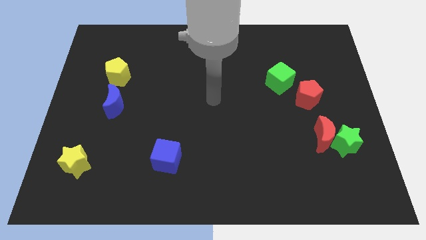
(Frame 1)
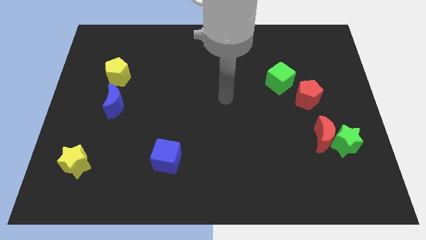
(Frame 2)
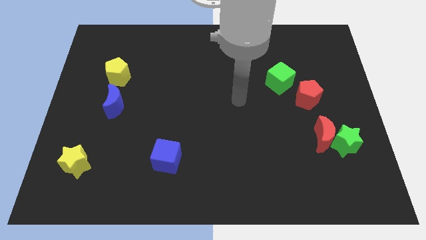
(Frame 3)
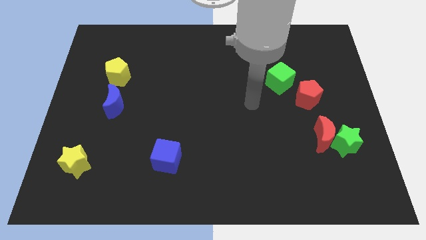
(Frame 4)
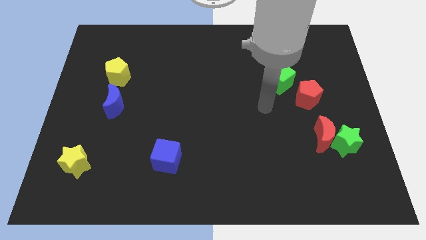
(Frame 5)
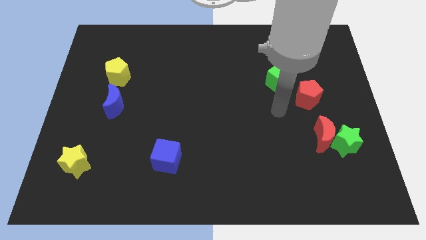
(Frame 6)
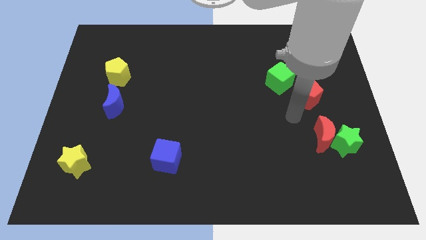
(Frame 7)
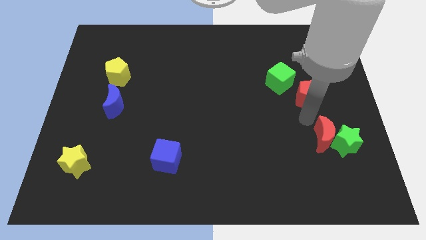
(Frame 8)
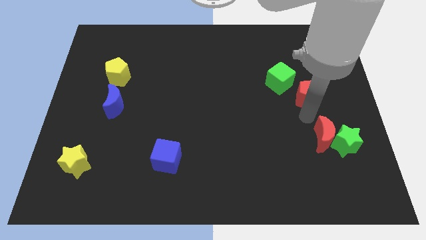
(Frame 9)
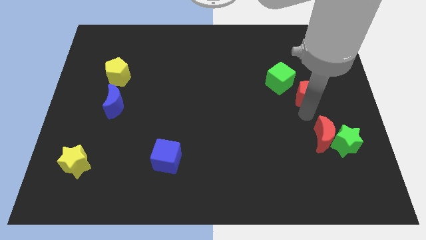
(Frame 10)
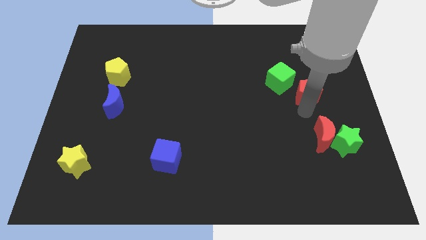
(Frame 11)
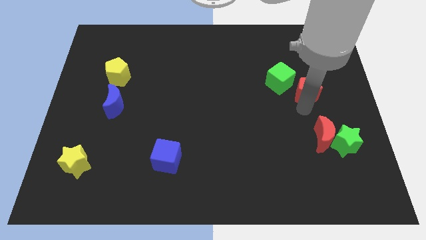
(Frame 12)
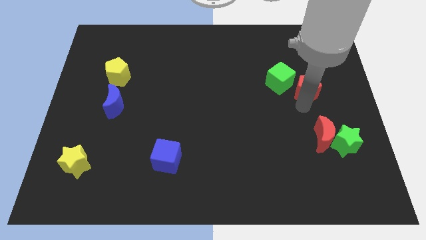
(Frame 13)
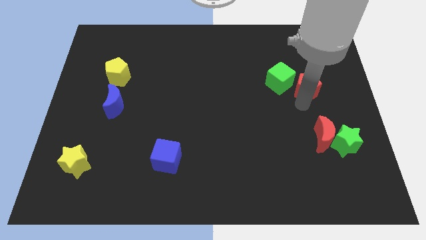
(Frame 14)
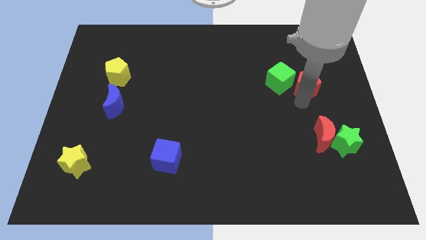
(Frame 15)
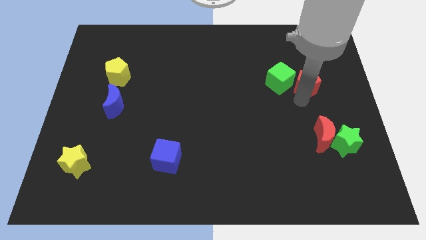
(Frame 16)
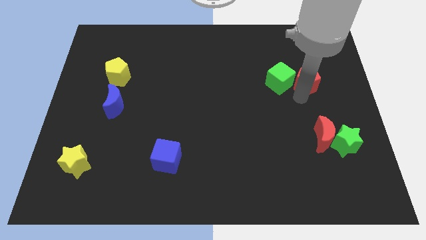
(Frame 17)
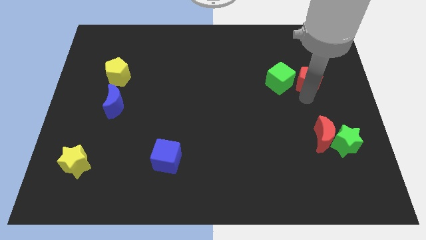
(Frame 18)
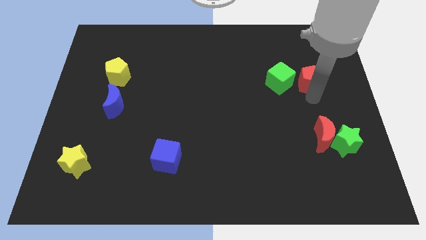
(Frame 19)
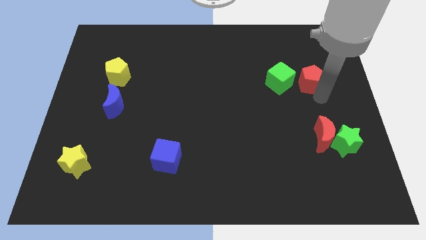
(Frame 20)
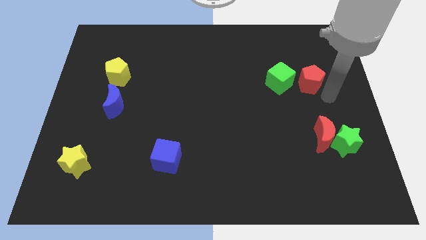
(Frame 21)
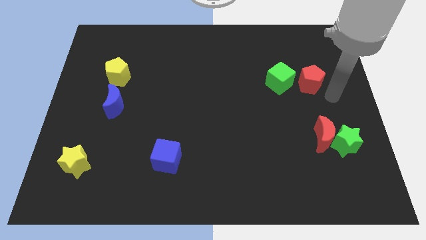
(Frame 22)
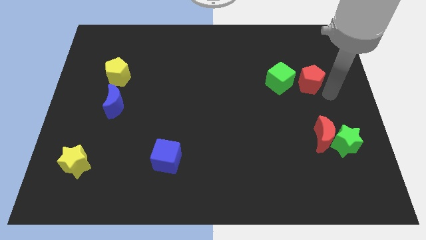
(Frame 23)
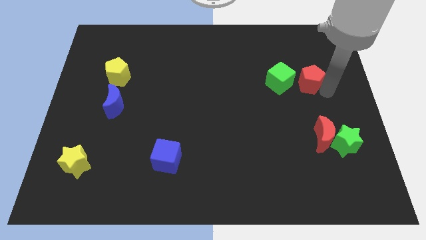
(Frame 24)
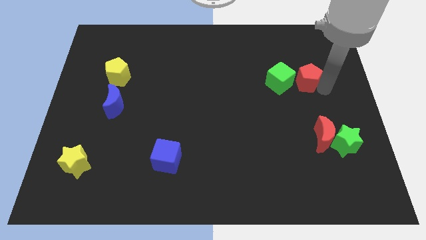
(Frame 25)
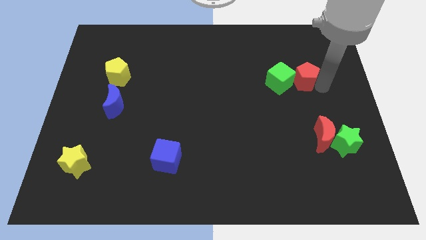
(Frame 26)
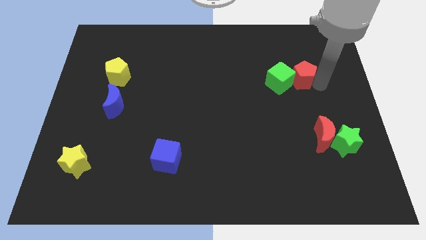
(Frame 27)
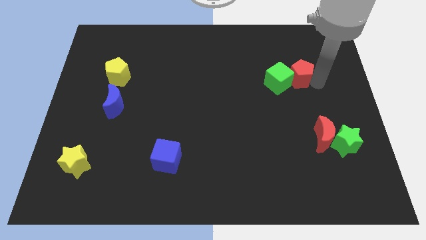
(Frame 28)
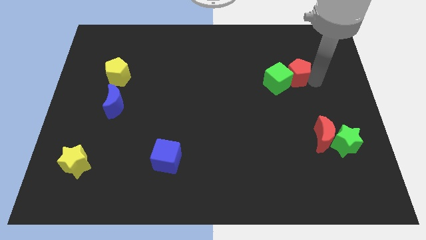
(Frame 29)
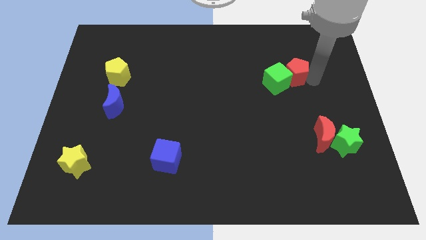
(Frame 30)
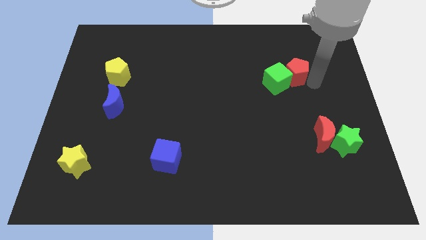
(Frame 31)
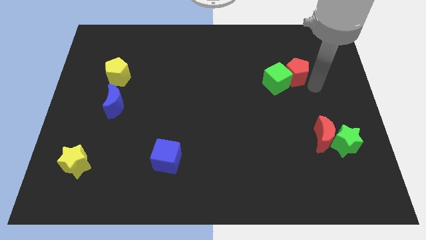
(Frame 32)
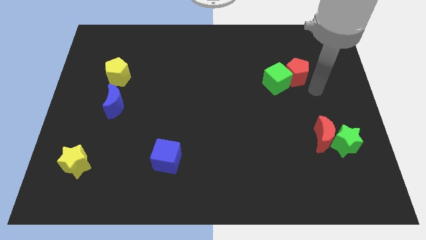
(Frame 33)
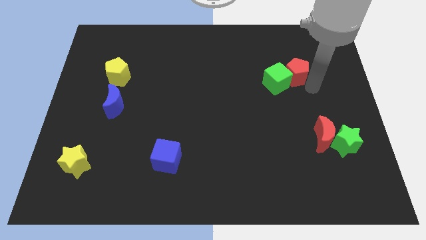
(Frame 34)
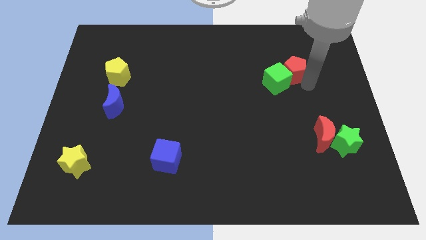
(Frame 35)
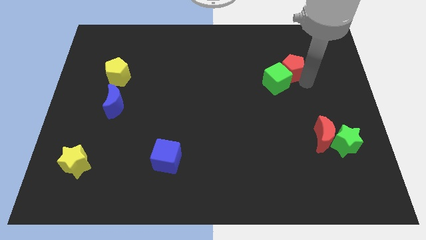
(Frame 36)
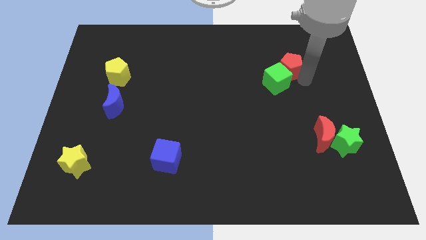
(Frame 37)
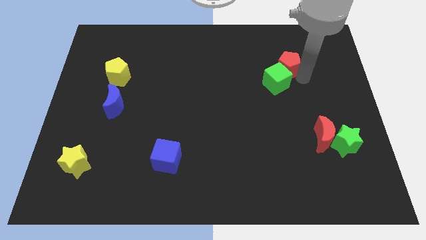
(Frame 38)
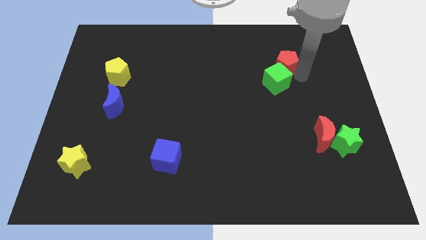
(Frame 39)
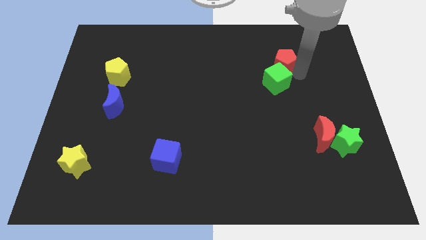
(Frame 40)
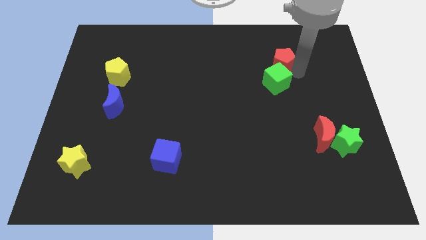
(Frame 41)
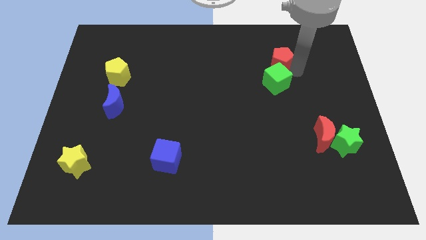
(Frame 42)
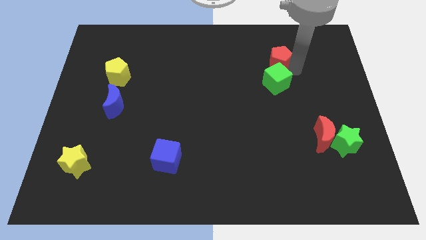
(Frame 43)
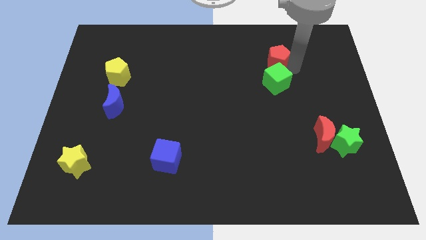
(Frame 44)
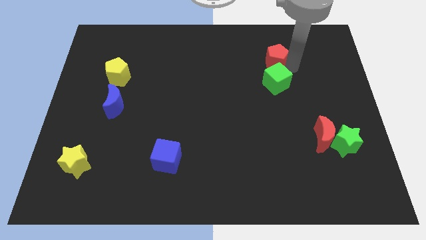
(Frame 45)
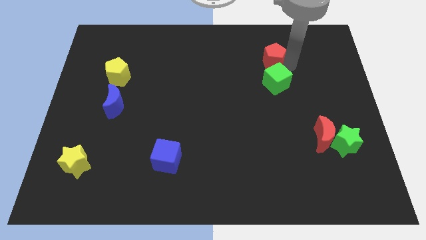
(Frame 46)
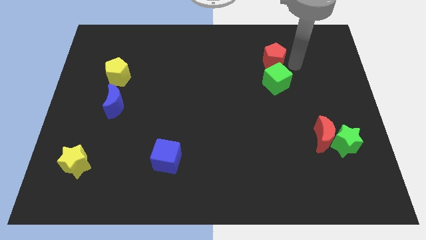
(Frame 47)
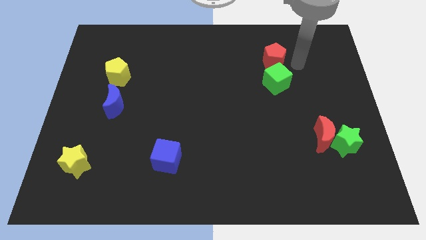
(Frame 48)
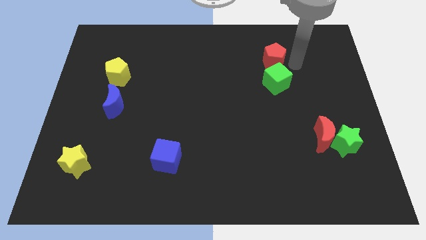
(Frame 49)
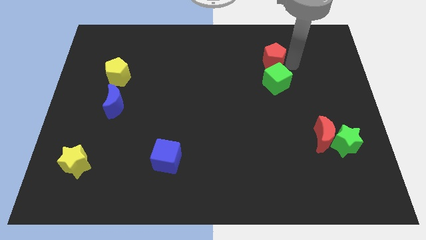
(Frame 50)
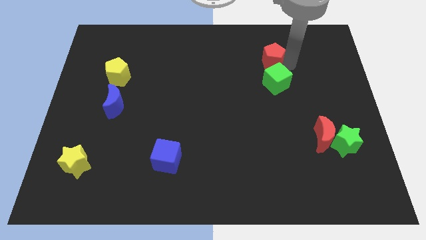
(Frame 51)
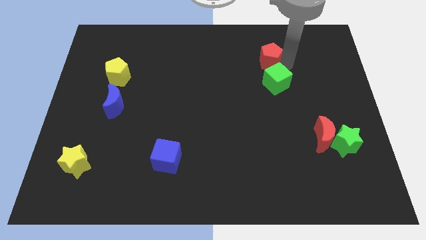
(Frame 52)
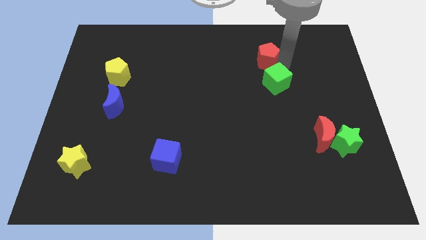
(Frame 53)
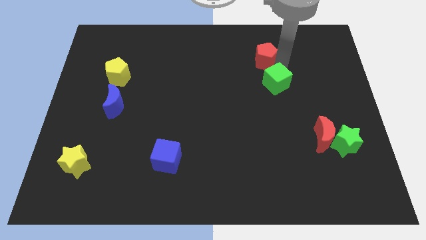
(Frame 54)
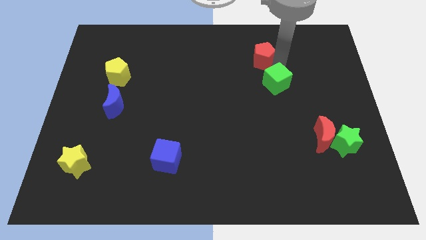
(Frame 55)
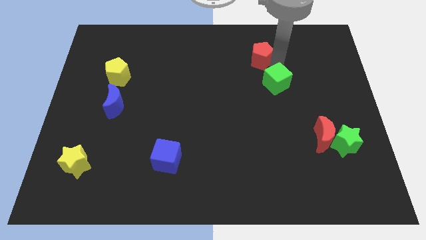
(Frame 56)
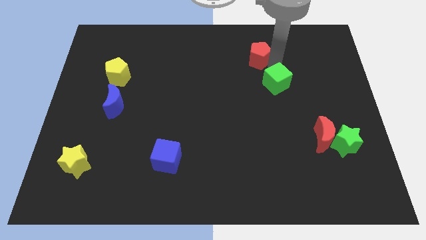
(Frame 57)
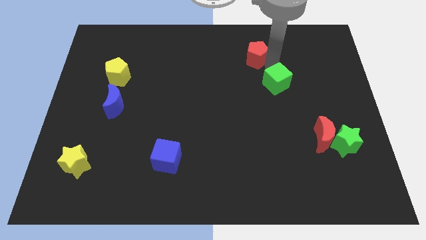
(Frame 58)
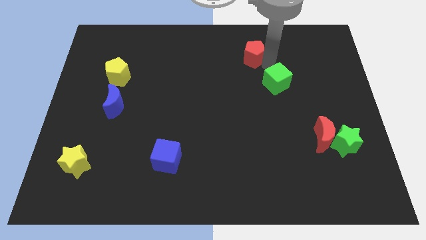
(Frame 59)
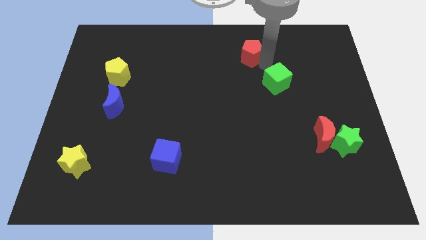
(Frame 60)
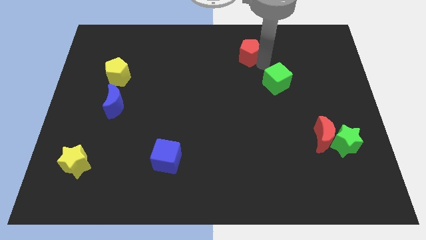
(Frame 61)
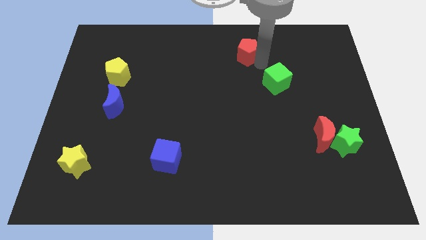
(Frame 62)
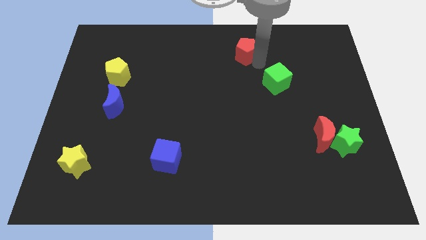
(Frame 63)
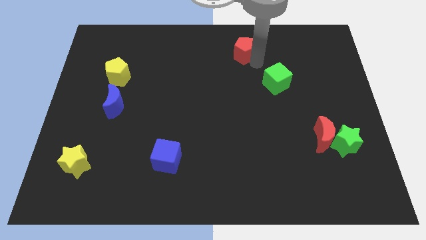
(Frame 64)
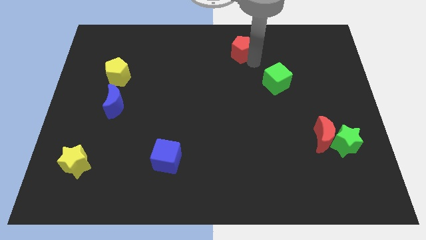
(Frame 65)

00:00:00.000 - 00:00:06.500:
push the red pentagon to the top

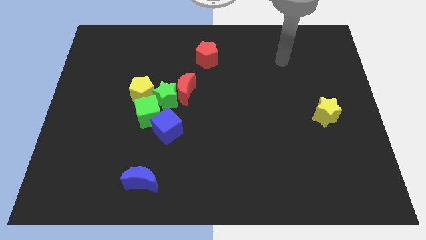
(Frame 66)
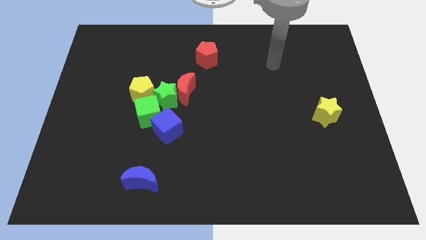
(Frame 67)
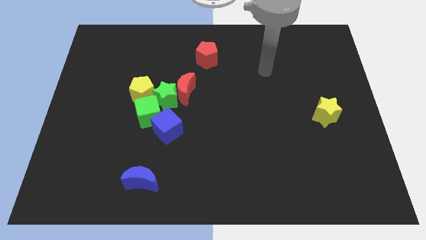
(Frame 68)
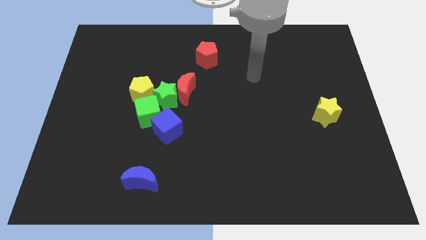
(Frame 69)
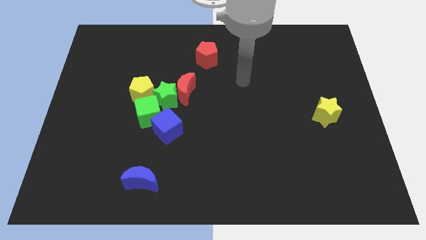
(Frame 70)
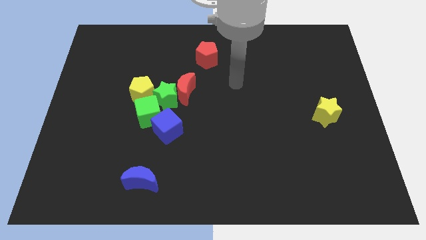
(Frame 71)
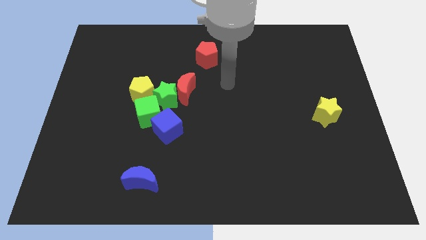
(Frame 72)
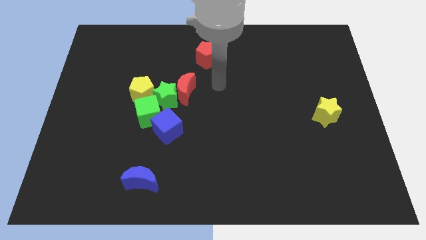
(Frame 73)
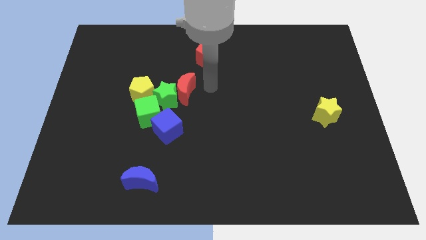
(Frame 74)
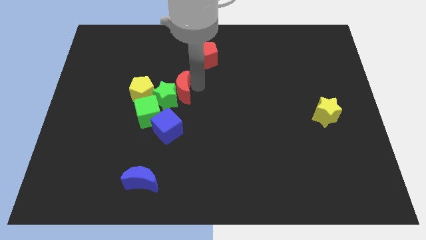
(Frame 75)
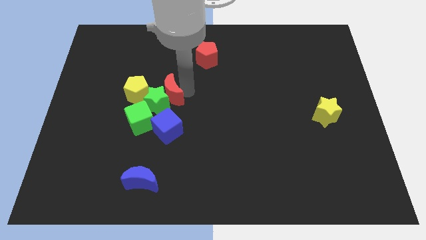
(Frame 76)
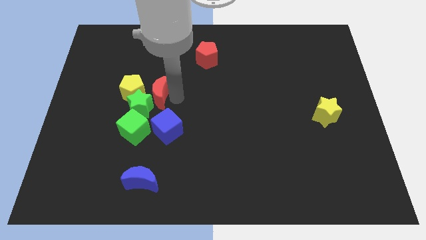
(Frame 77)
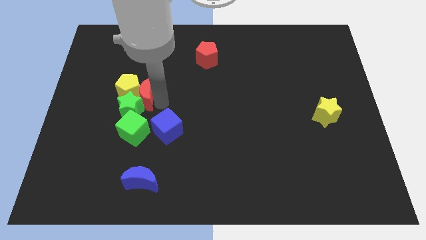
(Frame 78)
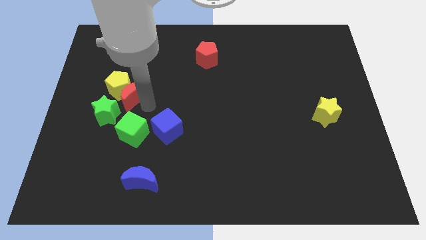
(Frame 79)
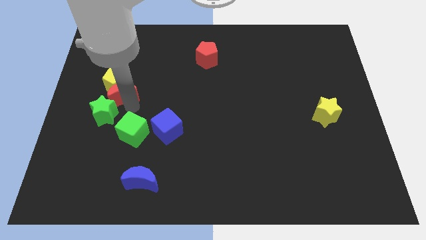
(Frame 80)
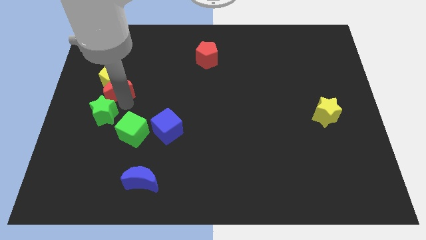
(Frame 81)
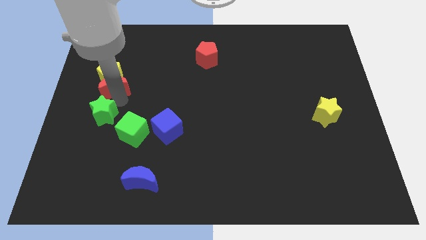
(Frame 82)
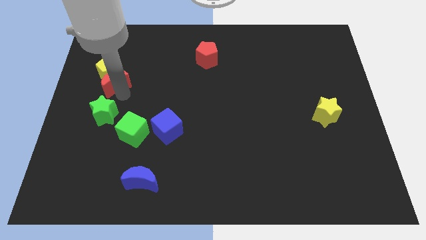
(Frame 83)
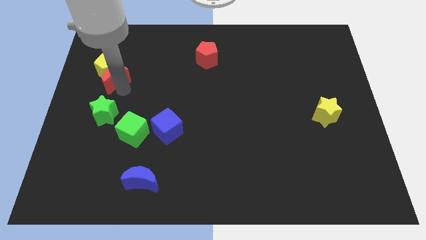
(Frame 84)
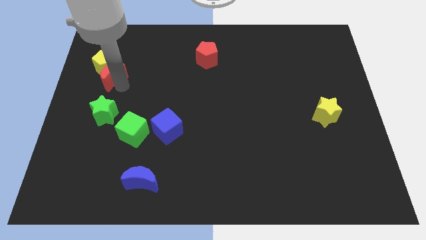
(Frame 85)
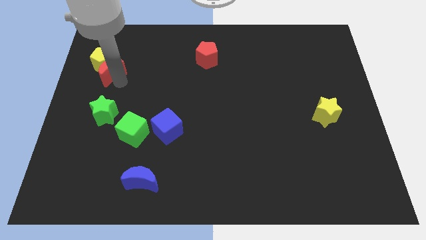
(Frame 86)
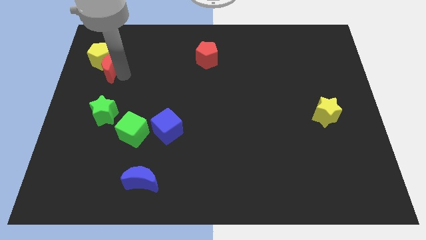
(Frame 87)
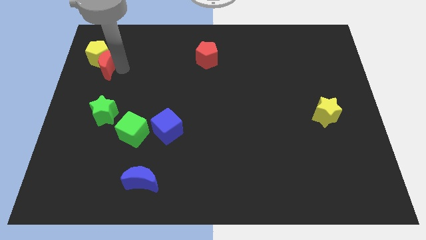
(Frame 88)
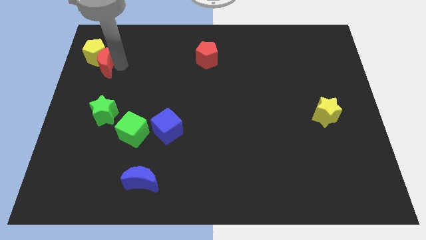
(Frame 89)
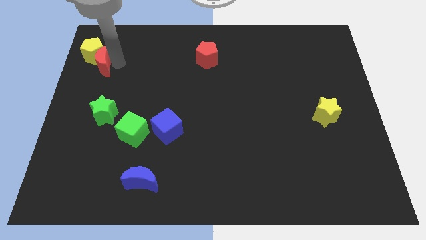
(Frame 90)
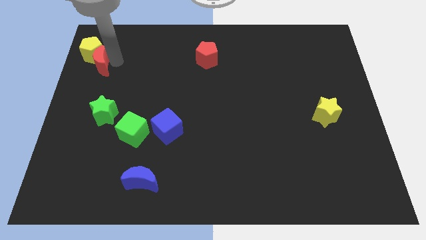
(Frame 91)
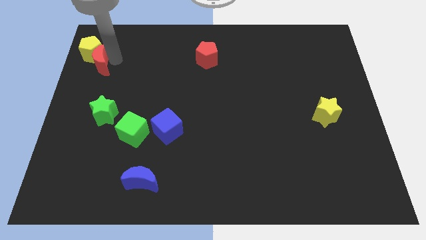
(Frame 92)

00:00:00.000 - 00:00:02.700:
move the yellow pentagon to the top left corner
